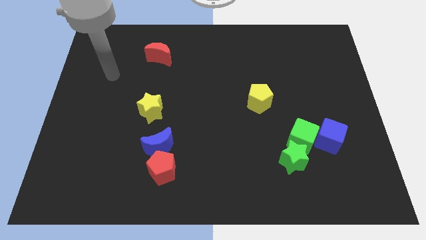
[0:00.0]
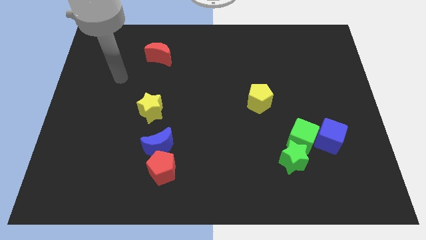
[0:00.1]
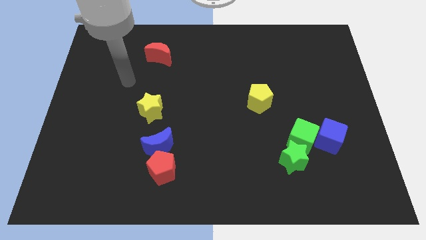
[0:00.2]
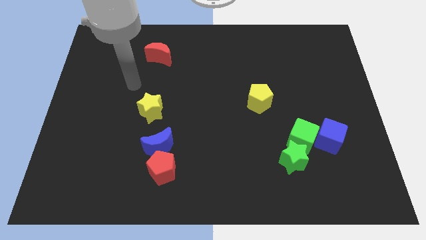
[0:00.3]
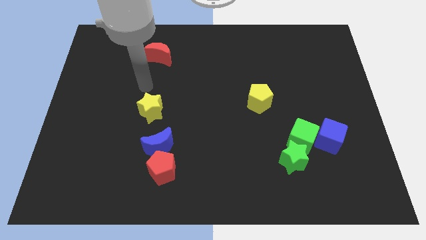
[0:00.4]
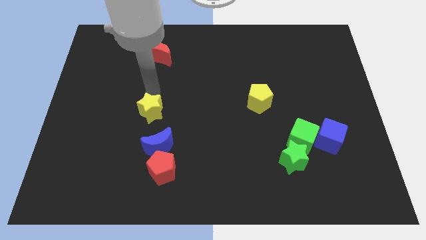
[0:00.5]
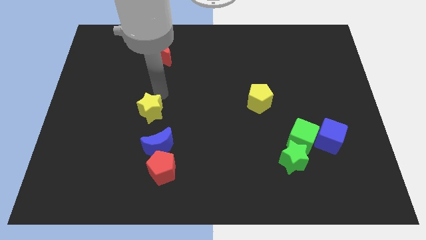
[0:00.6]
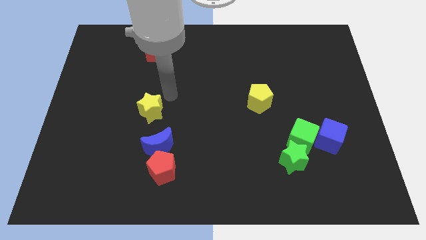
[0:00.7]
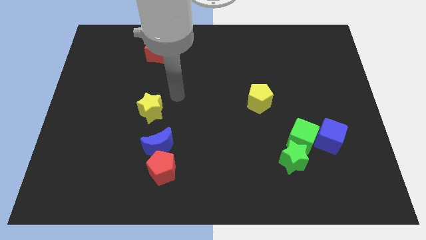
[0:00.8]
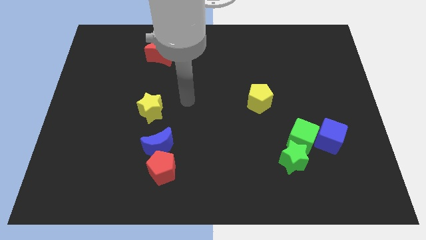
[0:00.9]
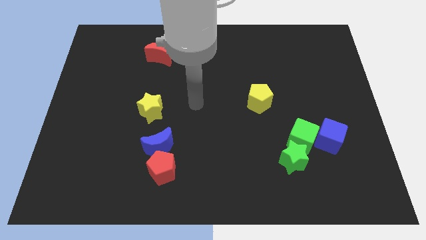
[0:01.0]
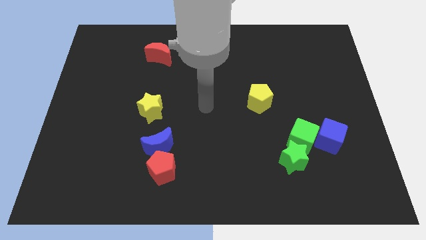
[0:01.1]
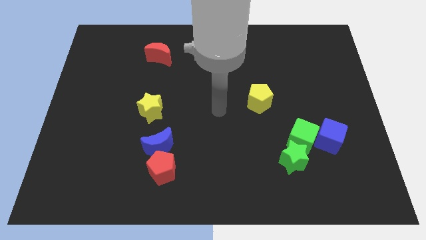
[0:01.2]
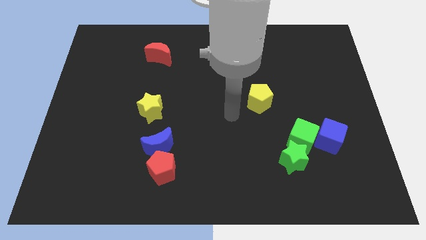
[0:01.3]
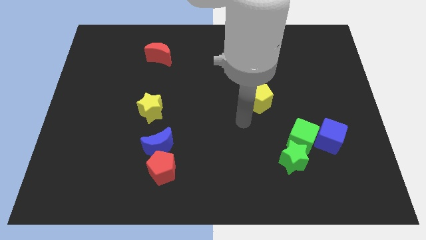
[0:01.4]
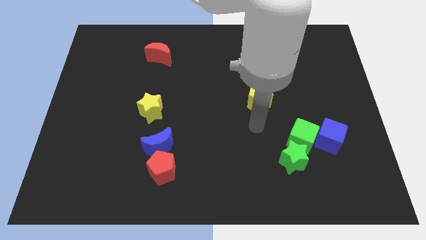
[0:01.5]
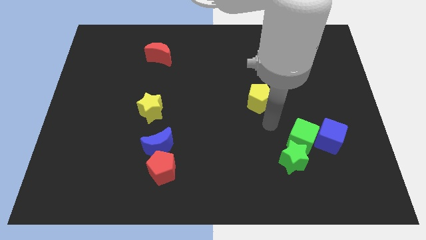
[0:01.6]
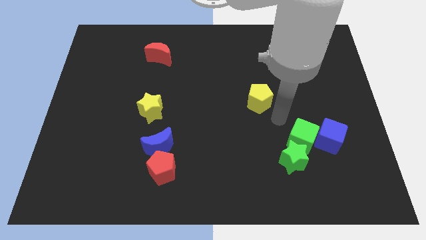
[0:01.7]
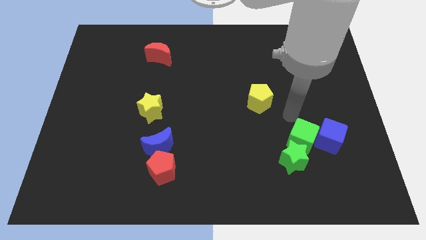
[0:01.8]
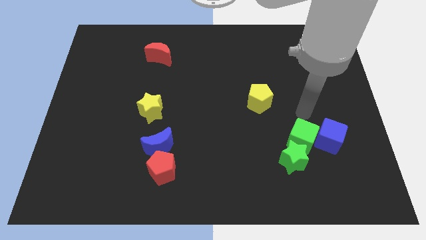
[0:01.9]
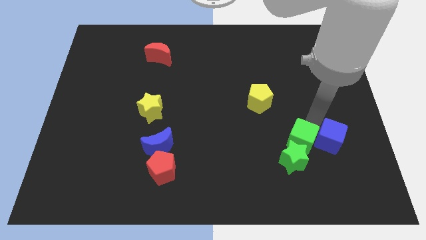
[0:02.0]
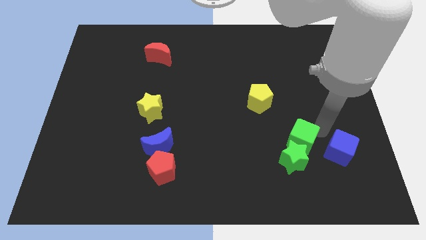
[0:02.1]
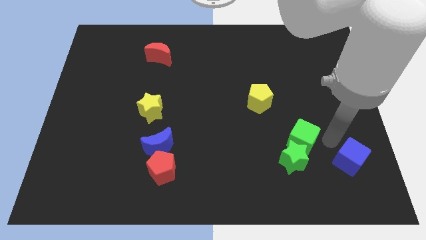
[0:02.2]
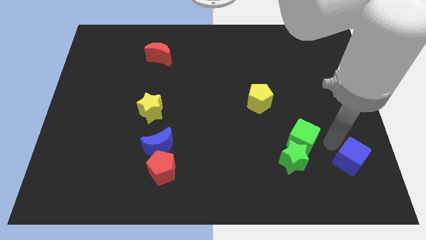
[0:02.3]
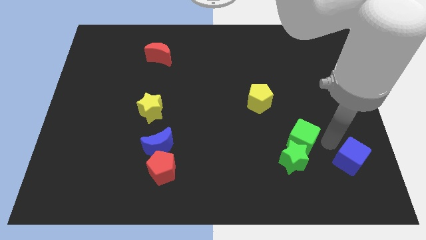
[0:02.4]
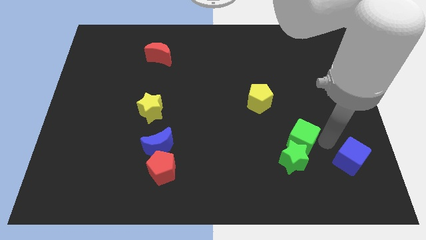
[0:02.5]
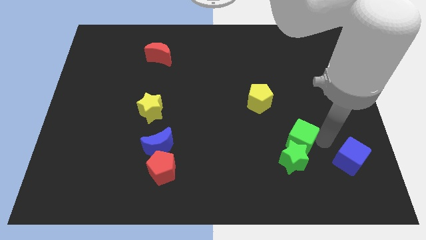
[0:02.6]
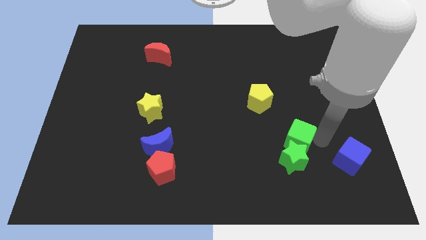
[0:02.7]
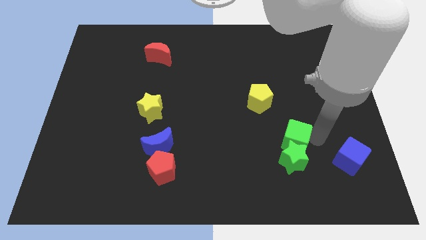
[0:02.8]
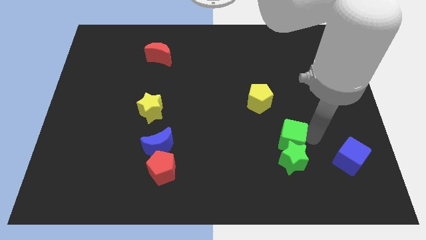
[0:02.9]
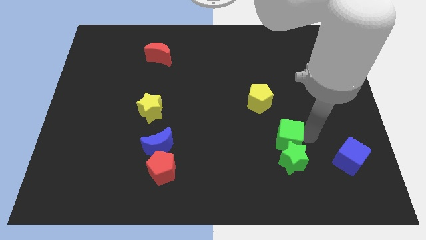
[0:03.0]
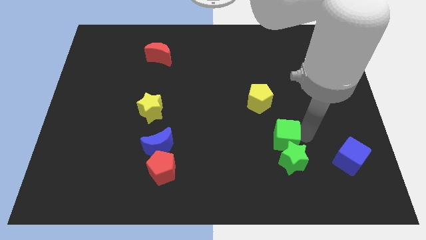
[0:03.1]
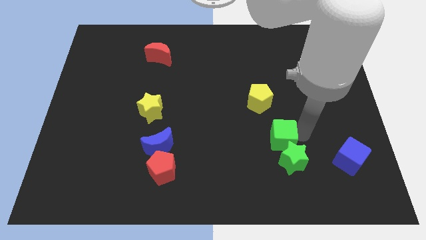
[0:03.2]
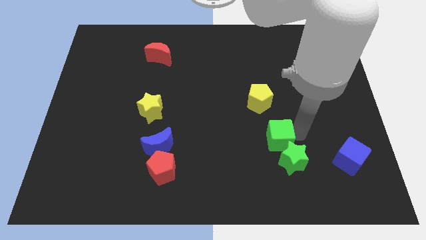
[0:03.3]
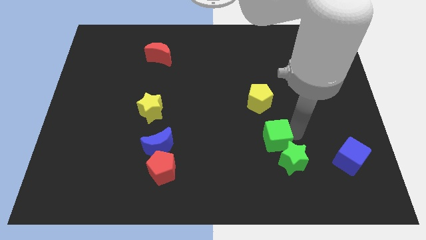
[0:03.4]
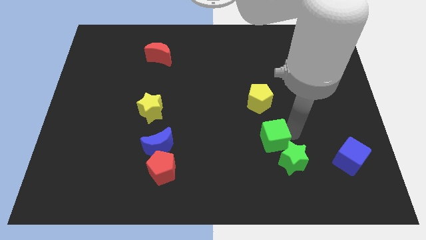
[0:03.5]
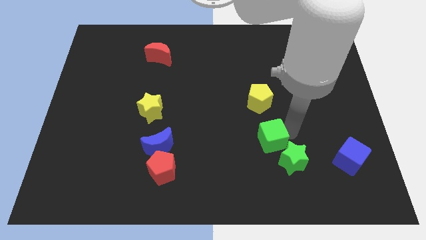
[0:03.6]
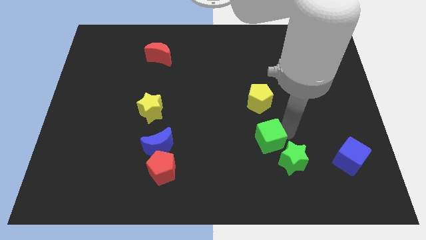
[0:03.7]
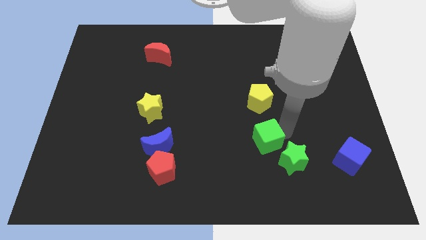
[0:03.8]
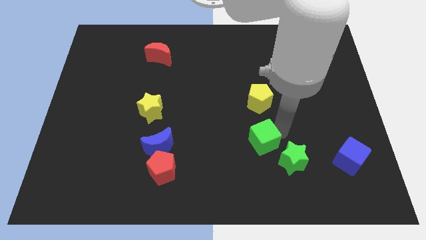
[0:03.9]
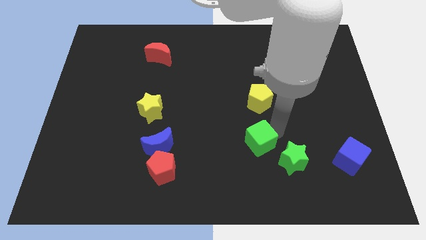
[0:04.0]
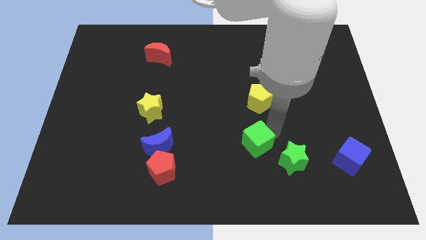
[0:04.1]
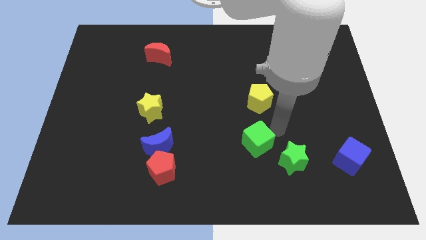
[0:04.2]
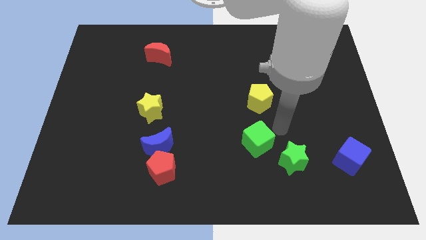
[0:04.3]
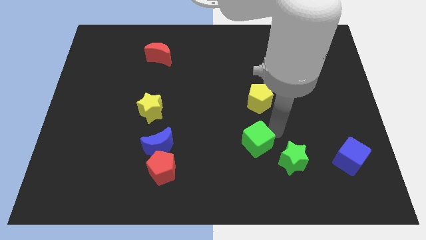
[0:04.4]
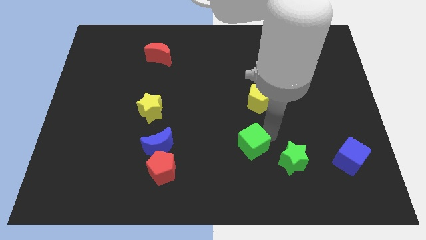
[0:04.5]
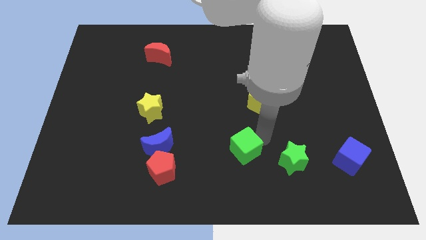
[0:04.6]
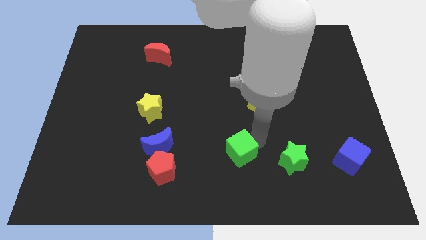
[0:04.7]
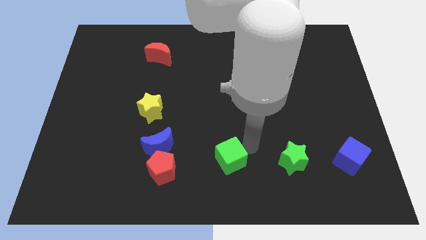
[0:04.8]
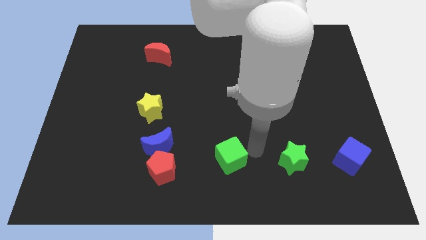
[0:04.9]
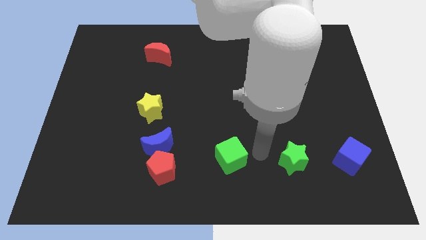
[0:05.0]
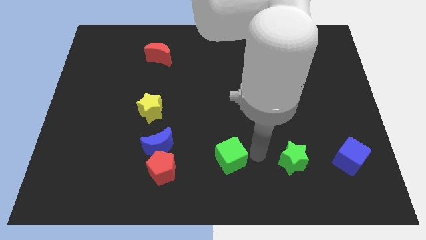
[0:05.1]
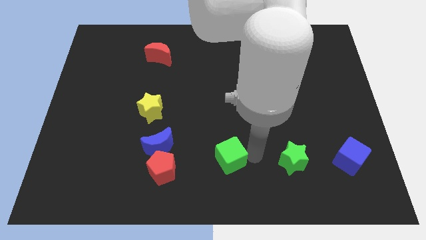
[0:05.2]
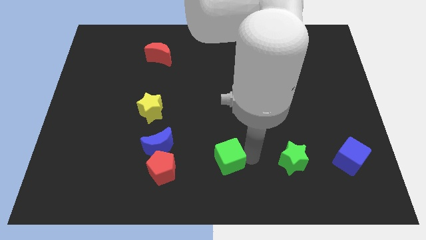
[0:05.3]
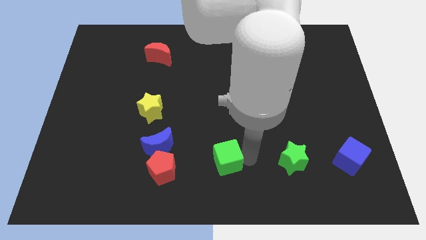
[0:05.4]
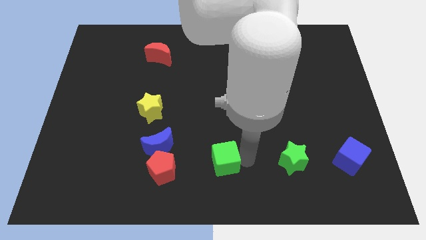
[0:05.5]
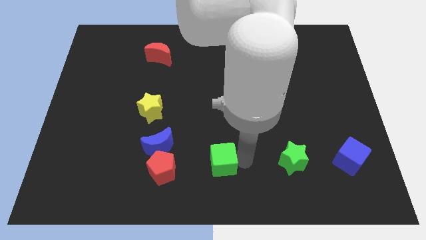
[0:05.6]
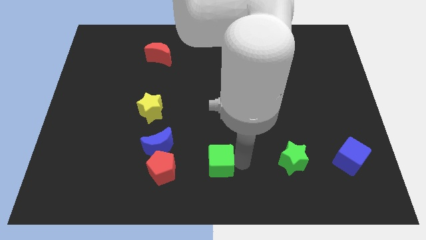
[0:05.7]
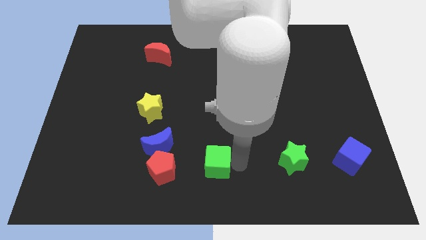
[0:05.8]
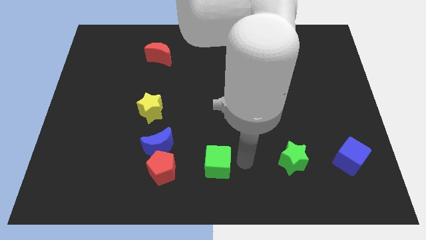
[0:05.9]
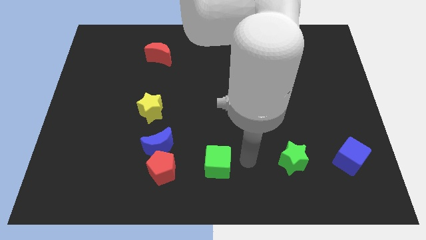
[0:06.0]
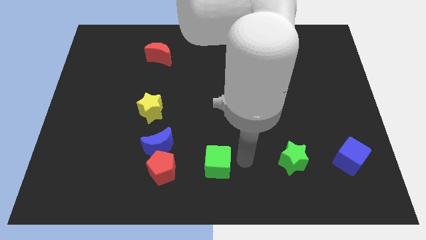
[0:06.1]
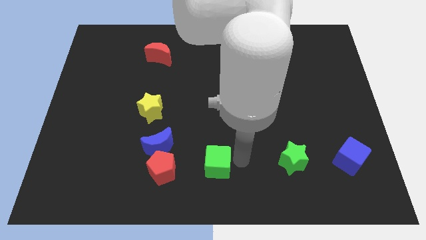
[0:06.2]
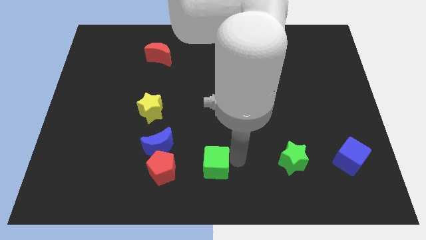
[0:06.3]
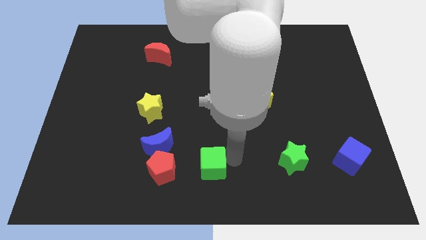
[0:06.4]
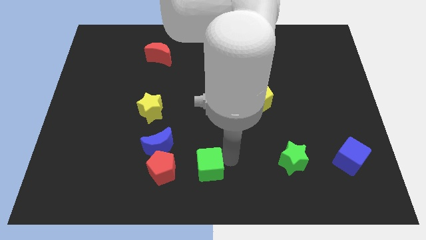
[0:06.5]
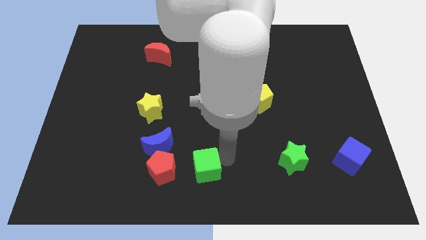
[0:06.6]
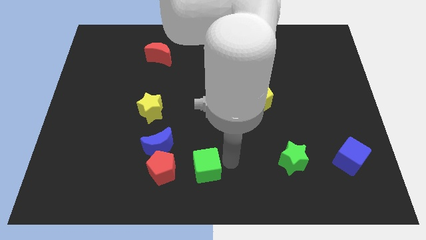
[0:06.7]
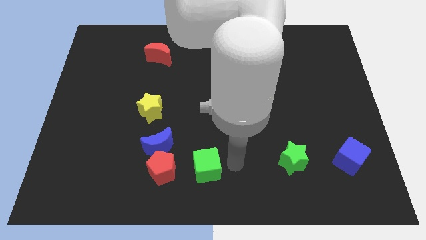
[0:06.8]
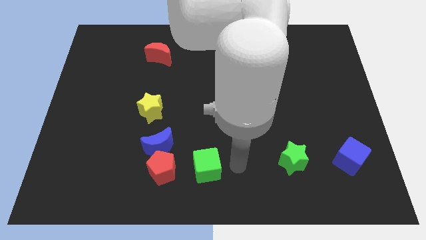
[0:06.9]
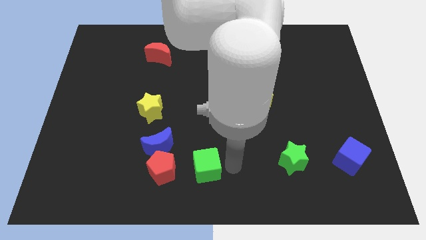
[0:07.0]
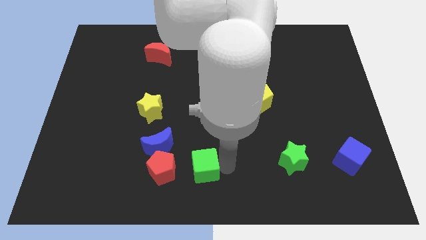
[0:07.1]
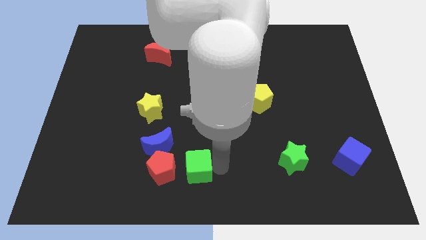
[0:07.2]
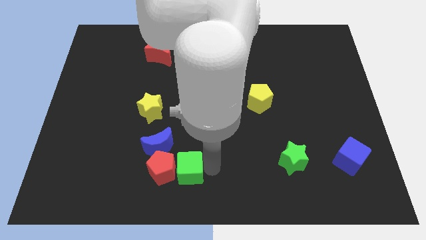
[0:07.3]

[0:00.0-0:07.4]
slide the green cube next to the red pentagon

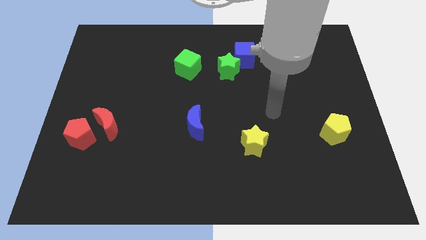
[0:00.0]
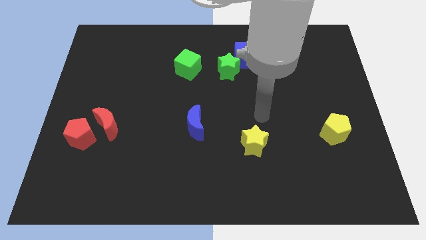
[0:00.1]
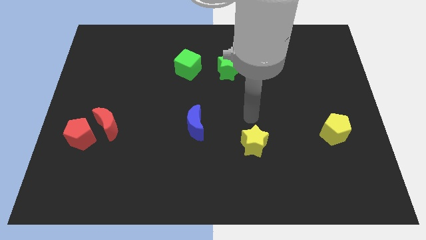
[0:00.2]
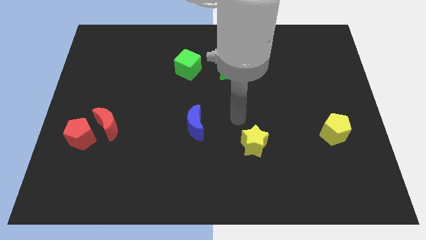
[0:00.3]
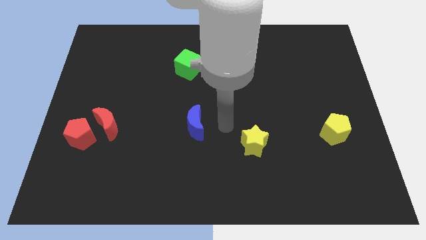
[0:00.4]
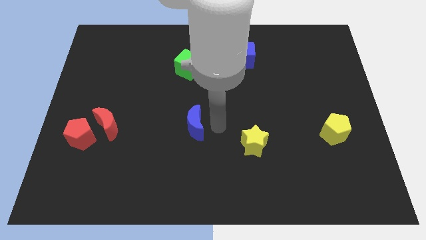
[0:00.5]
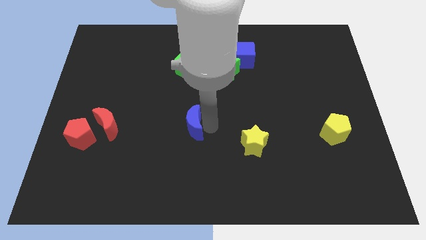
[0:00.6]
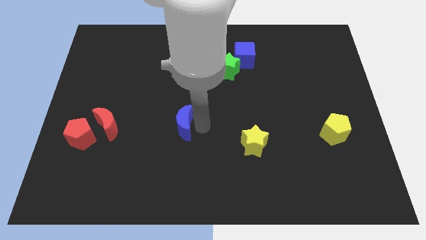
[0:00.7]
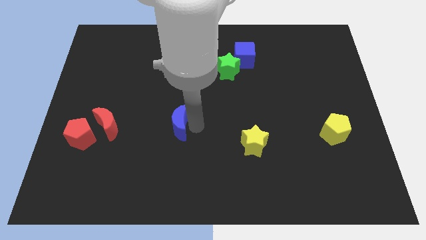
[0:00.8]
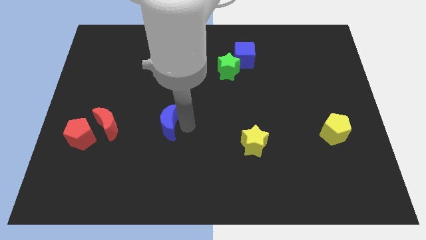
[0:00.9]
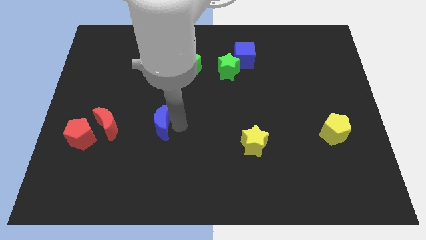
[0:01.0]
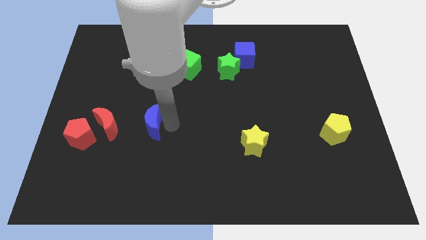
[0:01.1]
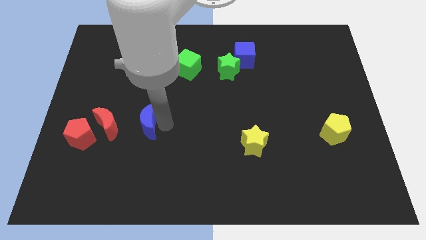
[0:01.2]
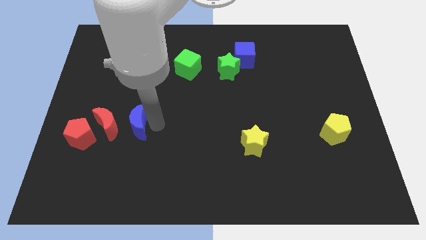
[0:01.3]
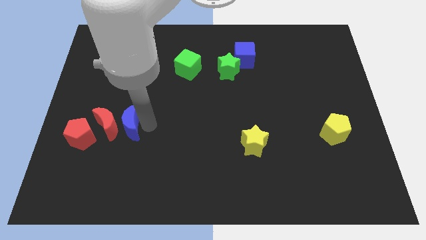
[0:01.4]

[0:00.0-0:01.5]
push the blue moon to the red moon
